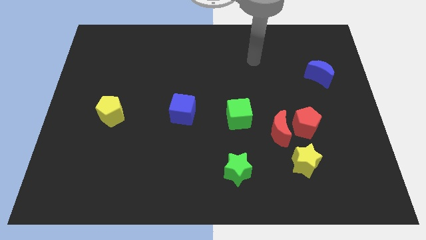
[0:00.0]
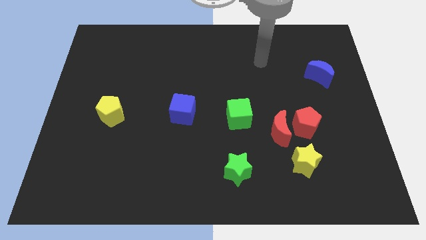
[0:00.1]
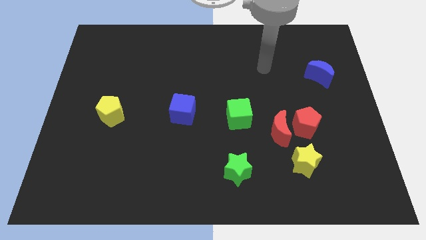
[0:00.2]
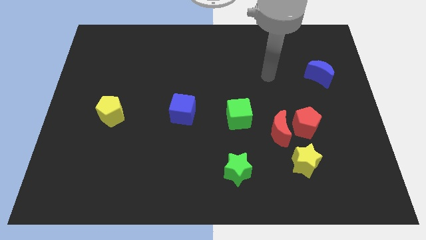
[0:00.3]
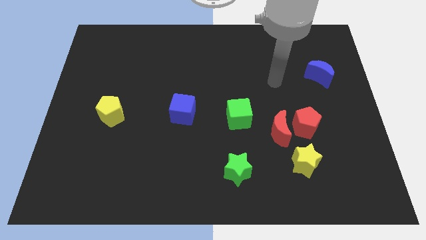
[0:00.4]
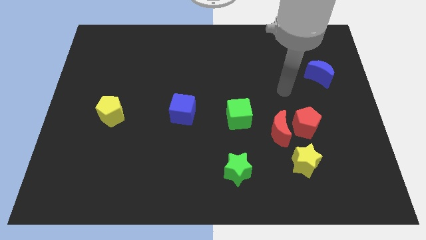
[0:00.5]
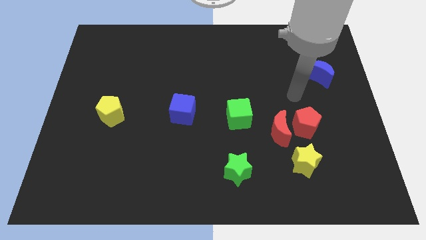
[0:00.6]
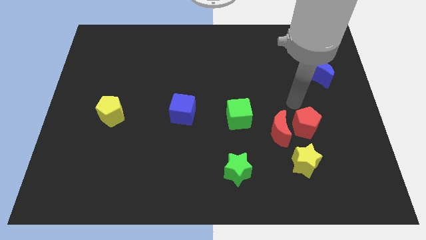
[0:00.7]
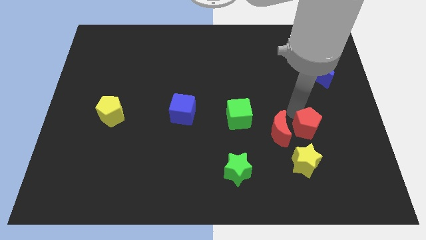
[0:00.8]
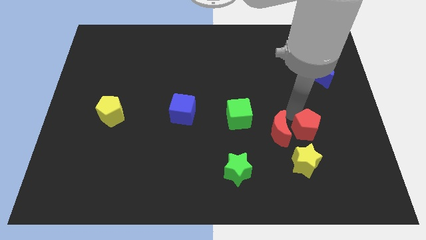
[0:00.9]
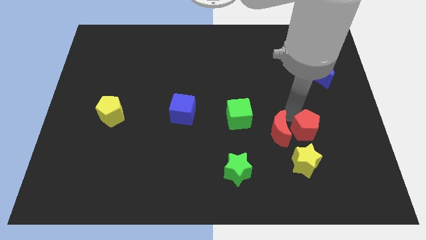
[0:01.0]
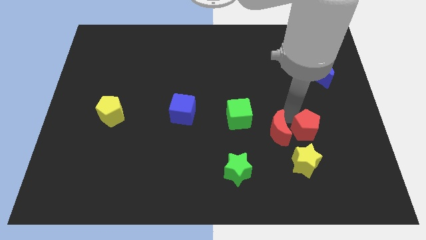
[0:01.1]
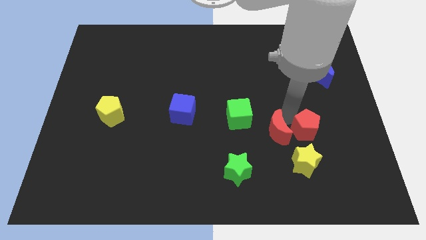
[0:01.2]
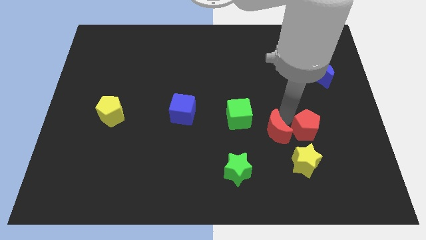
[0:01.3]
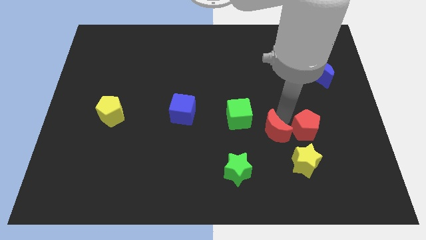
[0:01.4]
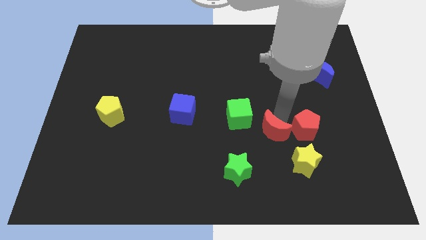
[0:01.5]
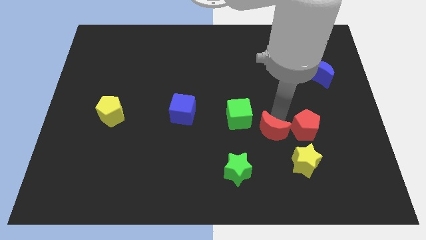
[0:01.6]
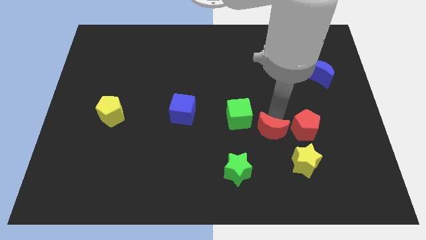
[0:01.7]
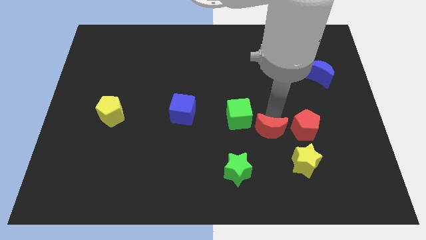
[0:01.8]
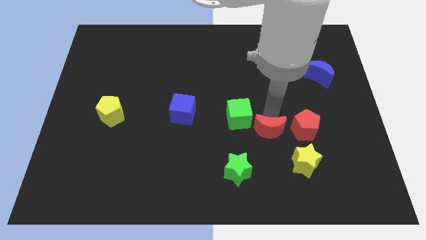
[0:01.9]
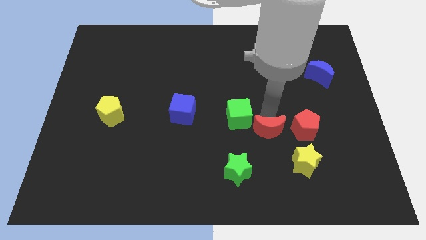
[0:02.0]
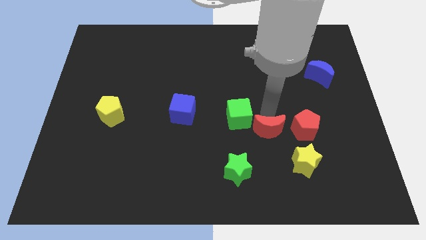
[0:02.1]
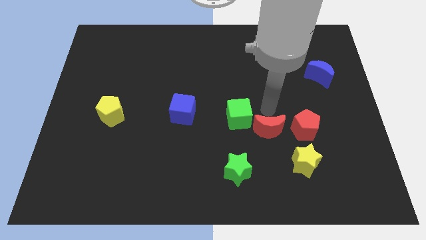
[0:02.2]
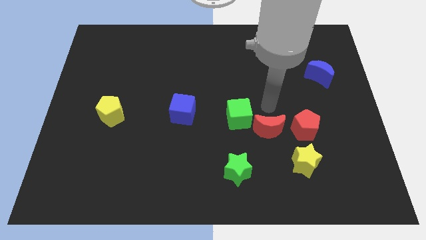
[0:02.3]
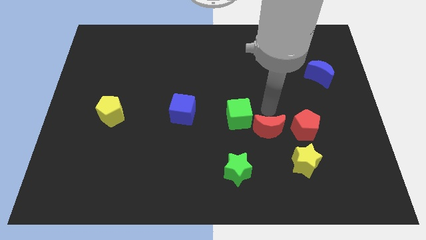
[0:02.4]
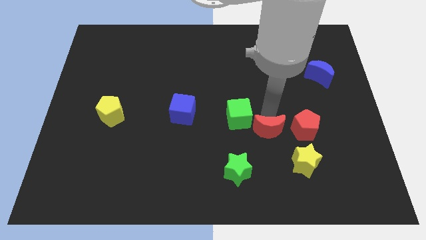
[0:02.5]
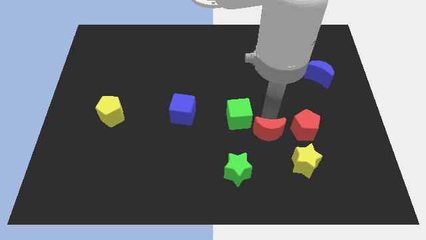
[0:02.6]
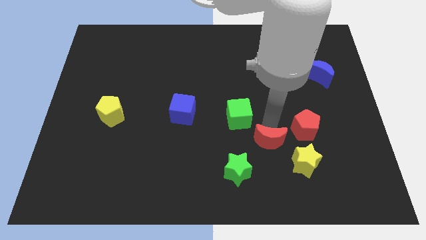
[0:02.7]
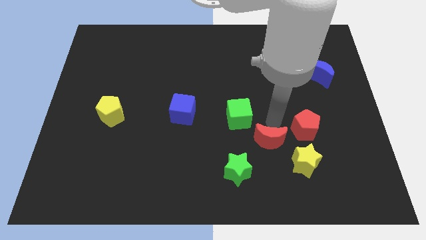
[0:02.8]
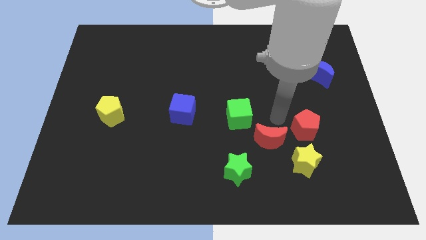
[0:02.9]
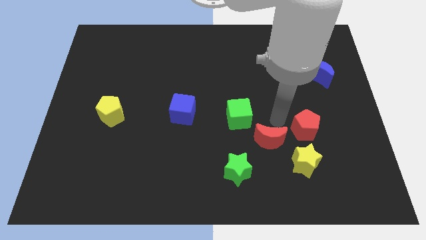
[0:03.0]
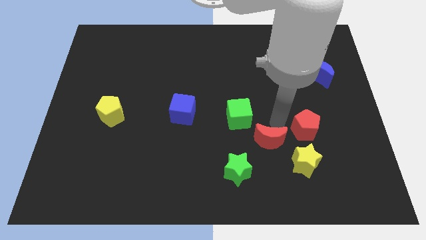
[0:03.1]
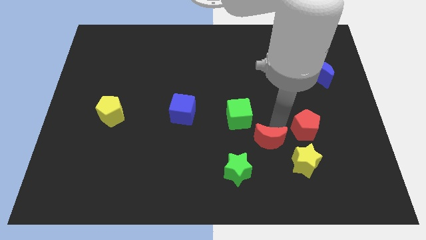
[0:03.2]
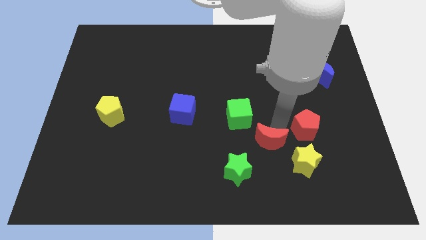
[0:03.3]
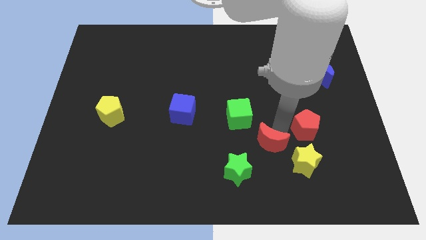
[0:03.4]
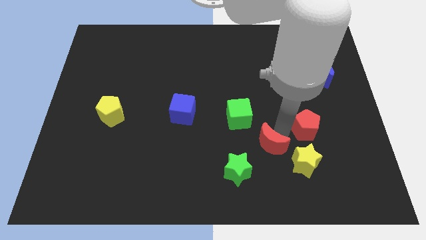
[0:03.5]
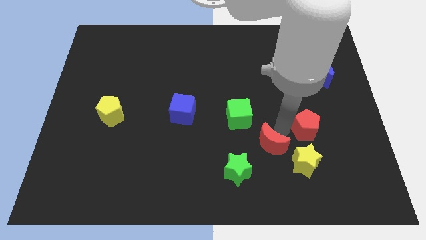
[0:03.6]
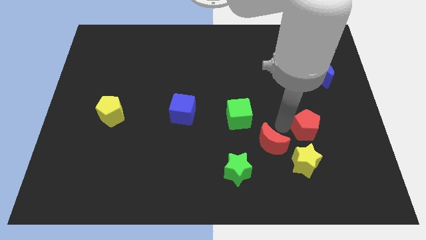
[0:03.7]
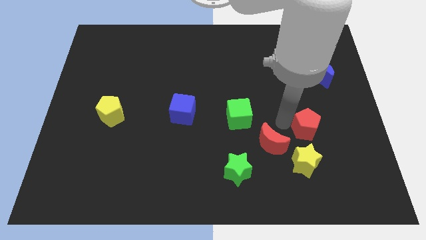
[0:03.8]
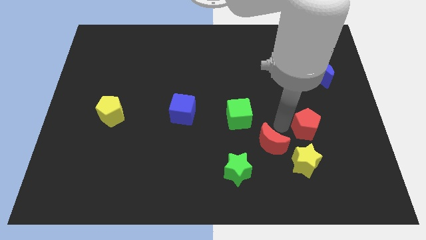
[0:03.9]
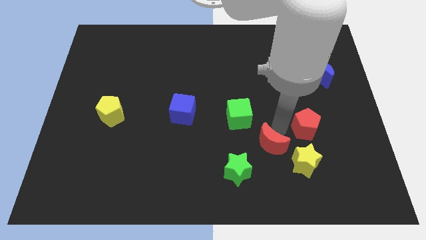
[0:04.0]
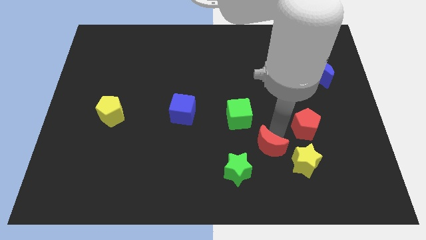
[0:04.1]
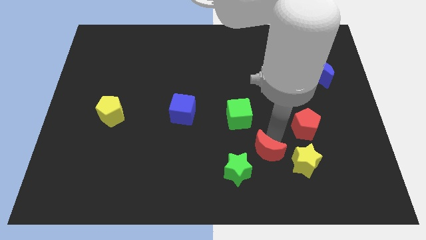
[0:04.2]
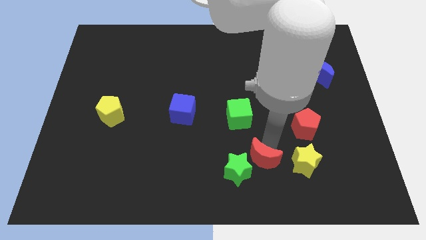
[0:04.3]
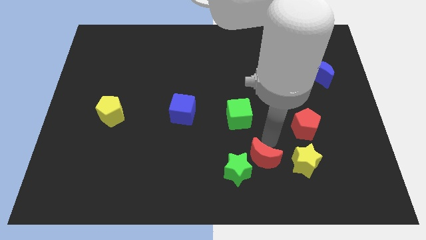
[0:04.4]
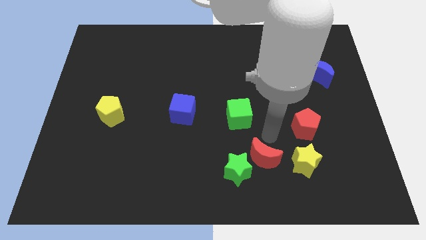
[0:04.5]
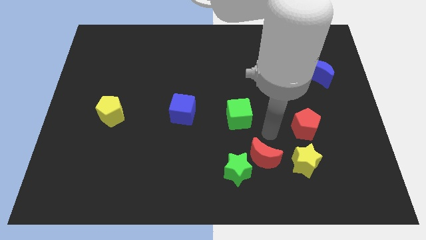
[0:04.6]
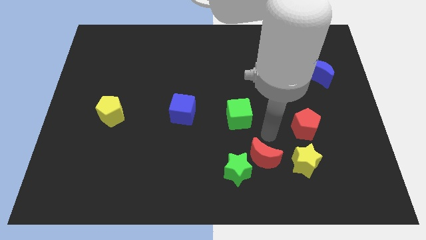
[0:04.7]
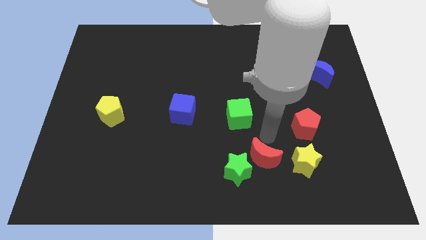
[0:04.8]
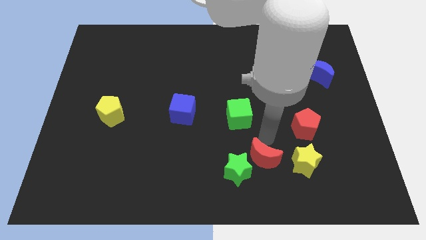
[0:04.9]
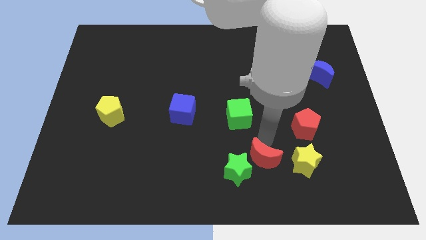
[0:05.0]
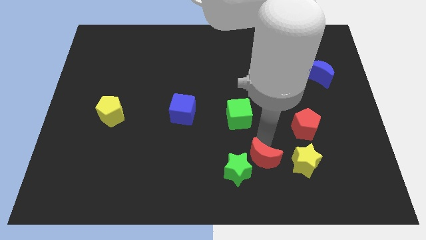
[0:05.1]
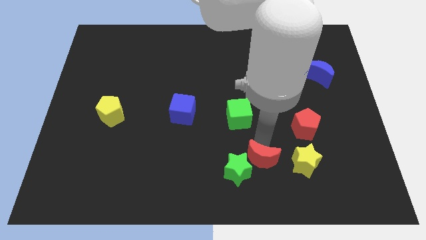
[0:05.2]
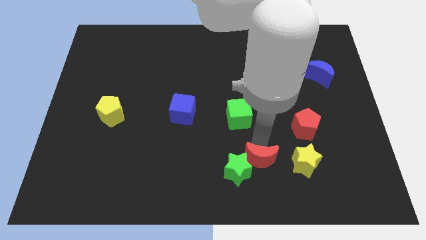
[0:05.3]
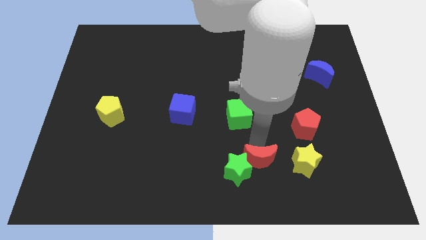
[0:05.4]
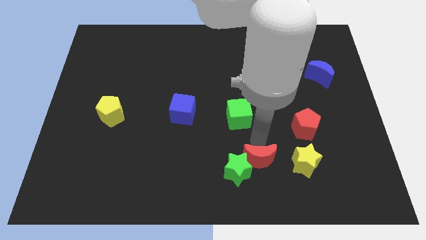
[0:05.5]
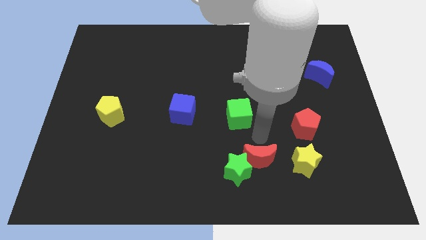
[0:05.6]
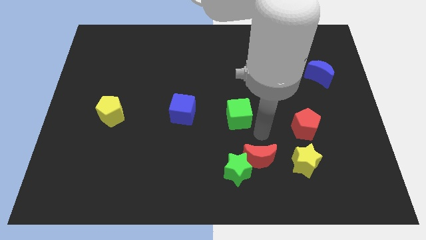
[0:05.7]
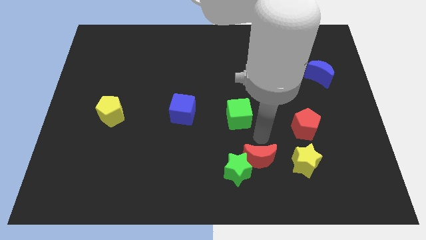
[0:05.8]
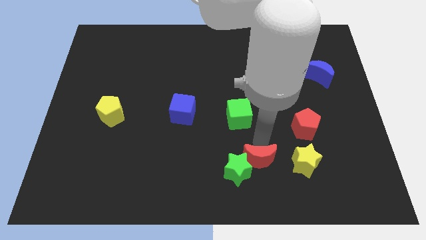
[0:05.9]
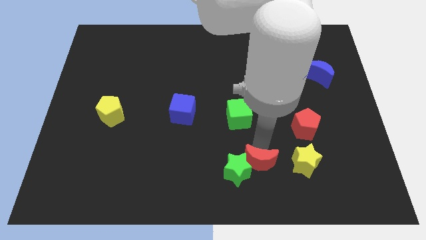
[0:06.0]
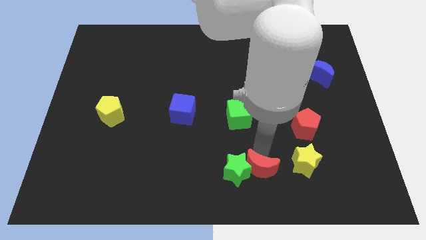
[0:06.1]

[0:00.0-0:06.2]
put the red moon to the bottom

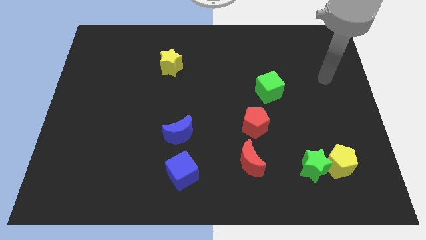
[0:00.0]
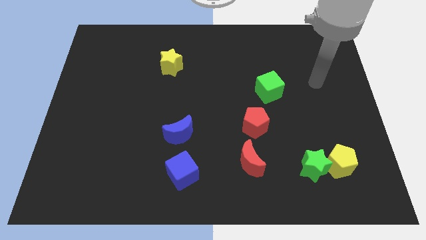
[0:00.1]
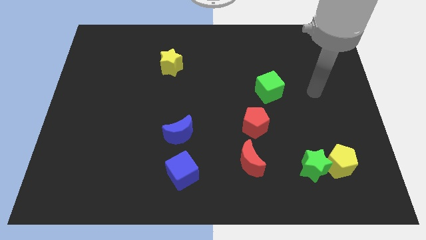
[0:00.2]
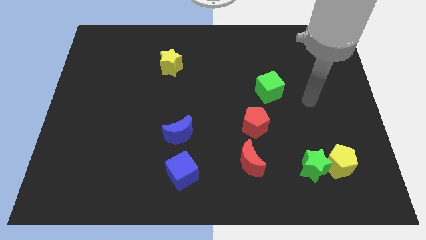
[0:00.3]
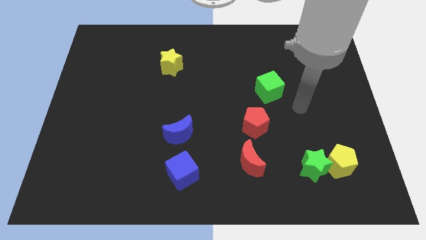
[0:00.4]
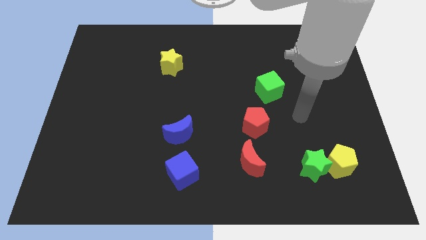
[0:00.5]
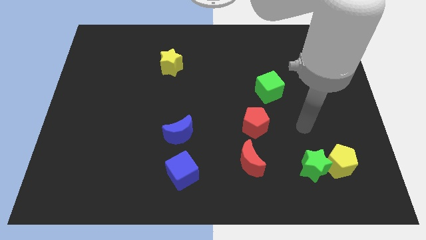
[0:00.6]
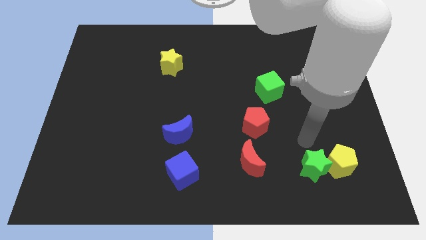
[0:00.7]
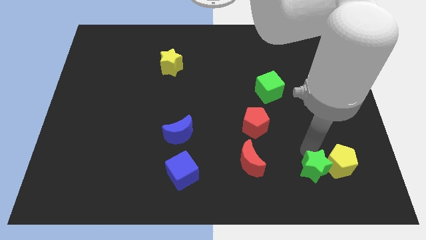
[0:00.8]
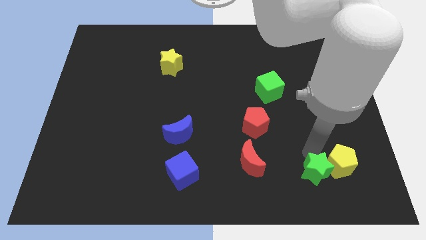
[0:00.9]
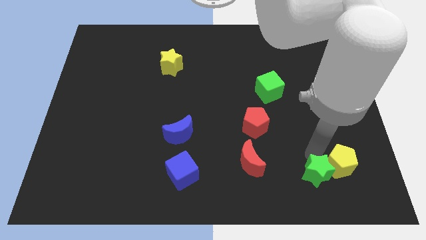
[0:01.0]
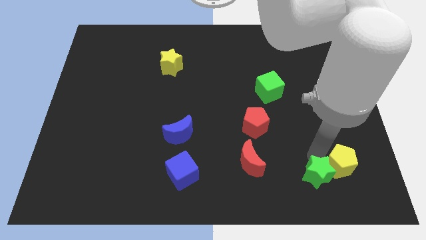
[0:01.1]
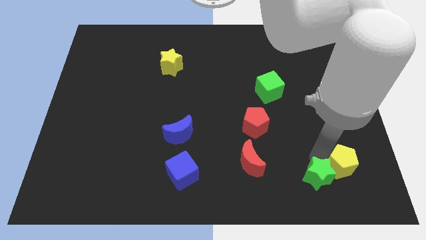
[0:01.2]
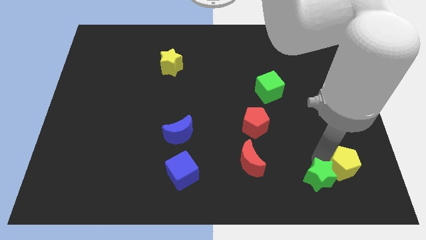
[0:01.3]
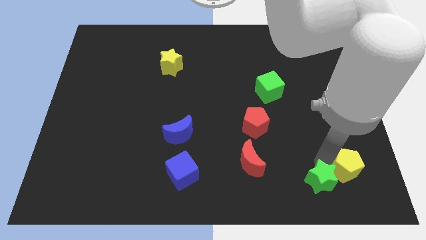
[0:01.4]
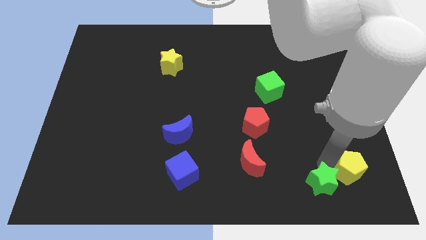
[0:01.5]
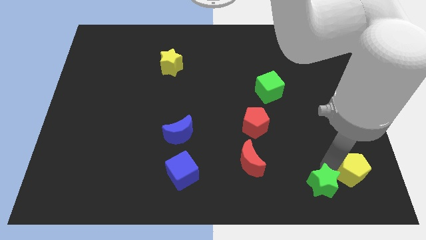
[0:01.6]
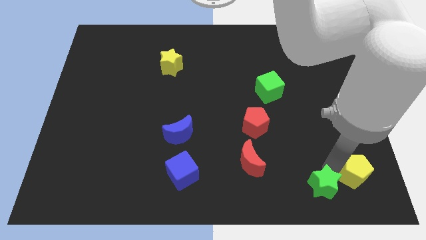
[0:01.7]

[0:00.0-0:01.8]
push the yellow pentagon to the lower right corner
